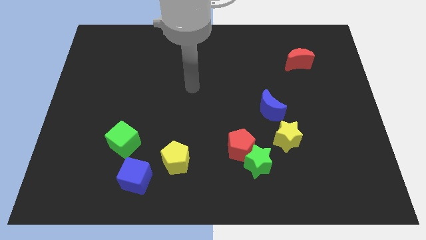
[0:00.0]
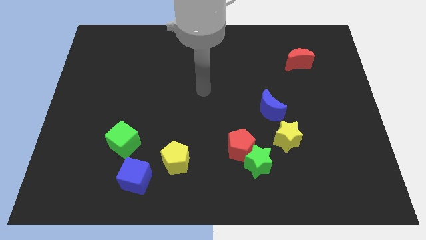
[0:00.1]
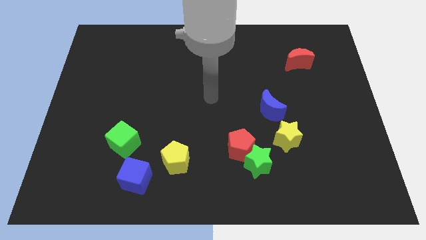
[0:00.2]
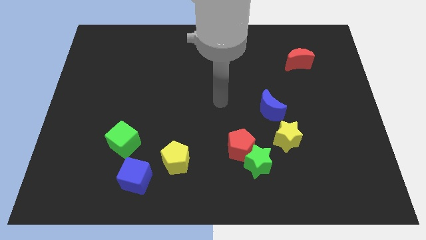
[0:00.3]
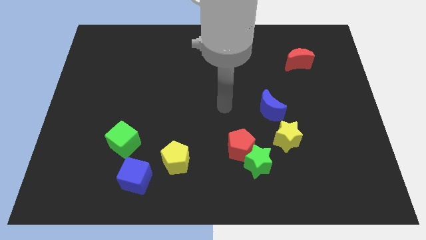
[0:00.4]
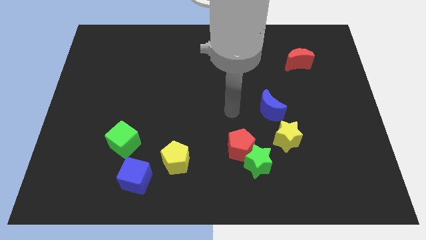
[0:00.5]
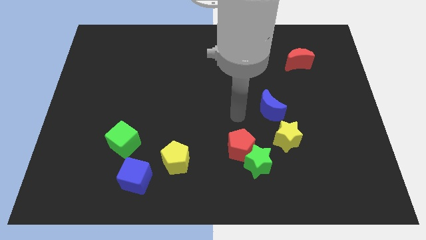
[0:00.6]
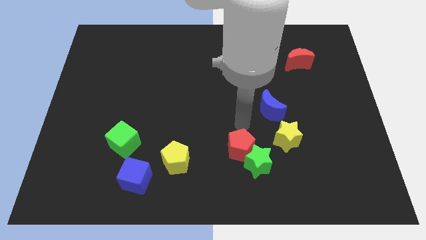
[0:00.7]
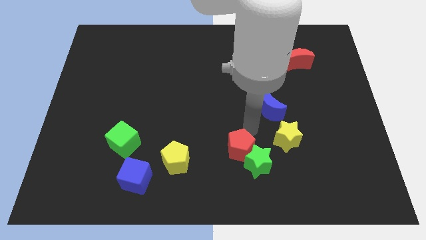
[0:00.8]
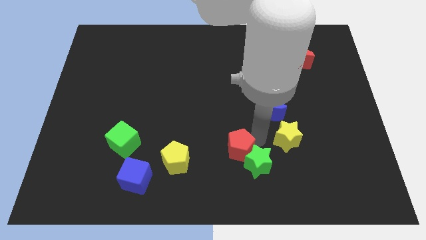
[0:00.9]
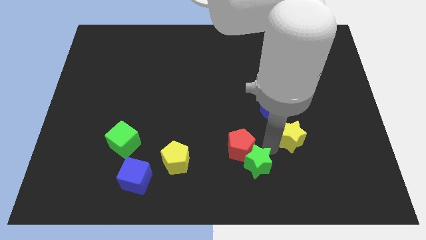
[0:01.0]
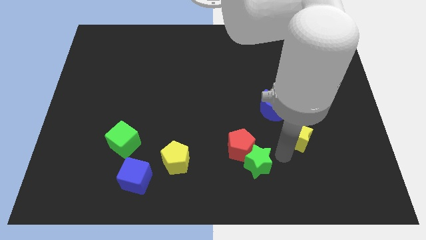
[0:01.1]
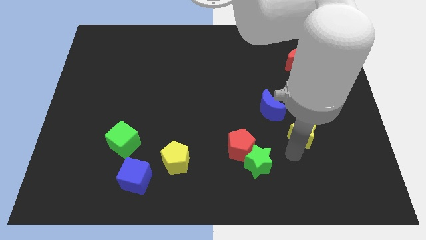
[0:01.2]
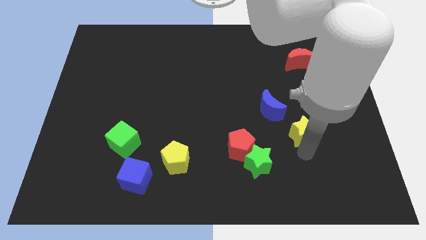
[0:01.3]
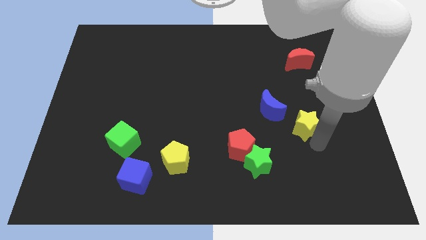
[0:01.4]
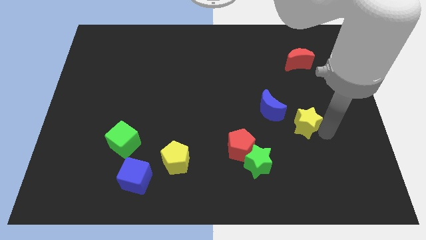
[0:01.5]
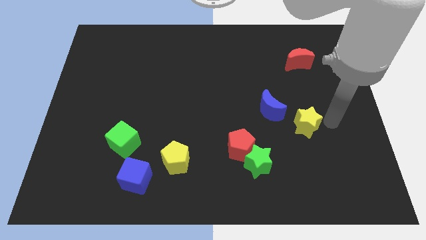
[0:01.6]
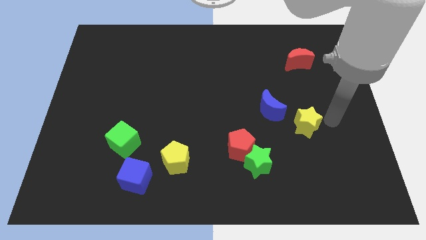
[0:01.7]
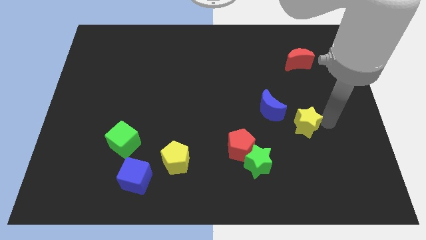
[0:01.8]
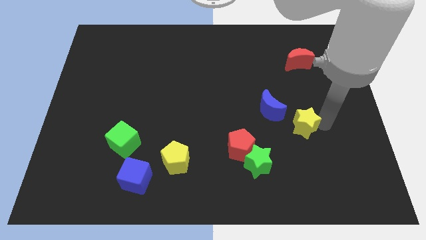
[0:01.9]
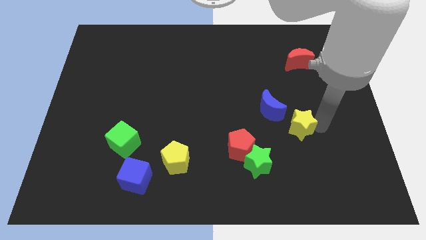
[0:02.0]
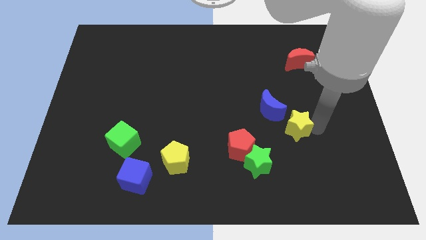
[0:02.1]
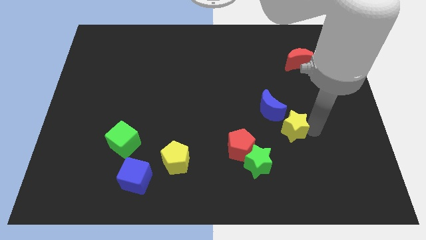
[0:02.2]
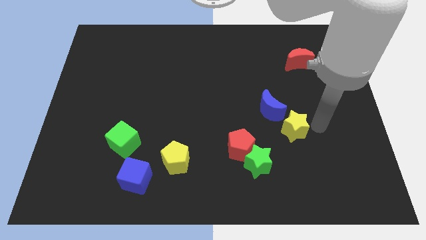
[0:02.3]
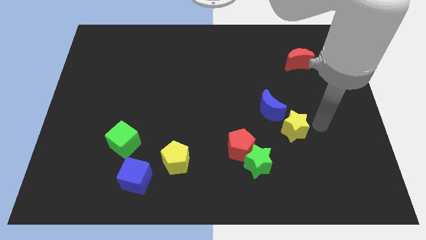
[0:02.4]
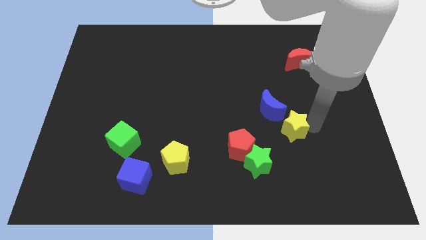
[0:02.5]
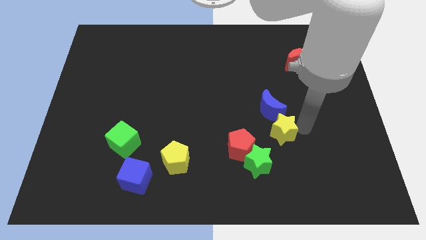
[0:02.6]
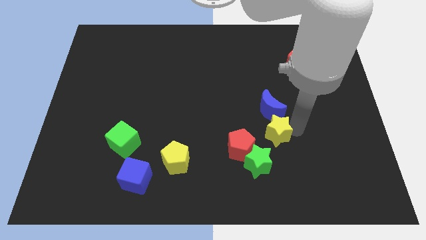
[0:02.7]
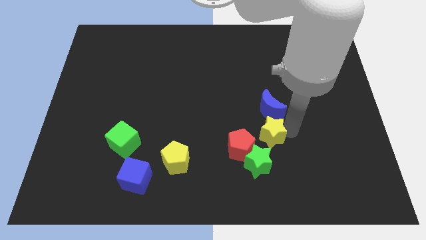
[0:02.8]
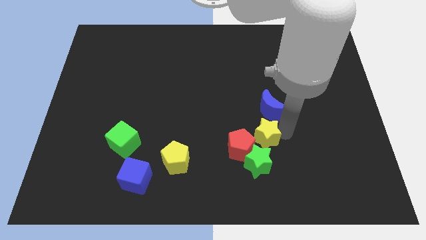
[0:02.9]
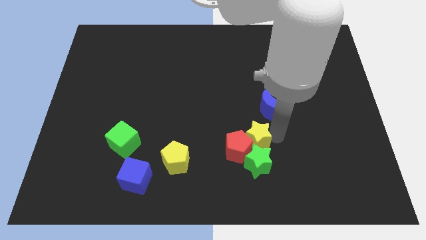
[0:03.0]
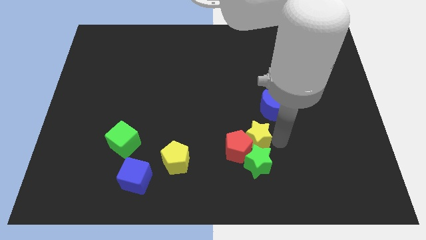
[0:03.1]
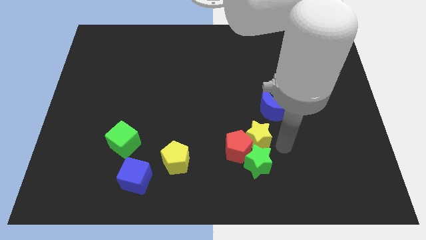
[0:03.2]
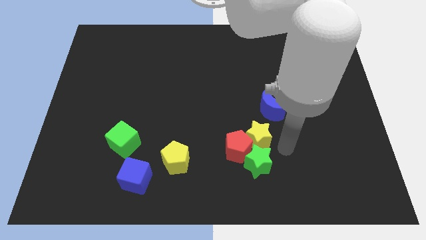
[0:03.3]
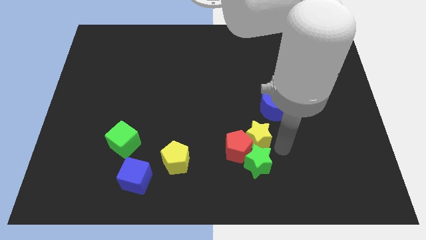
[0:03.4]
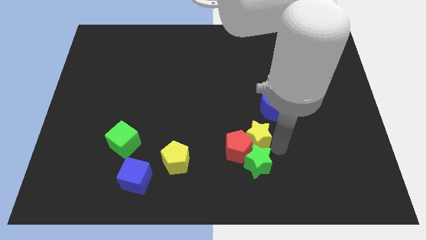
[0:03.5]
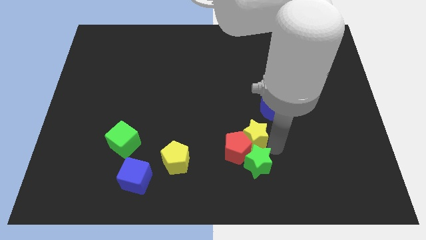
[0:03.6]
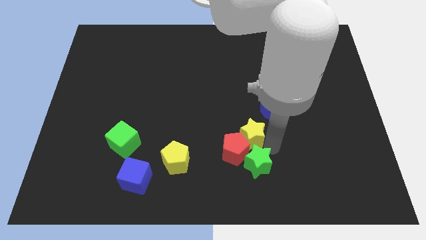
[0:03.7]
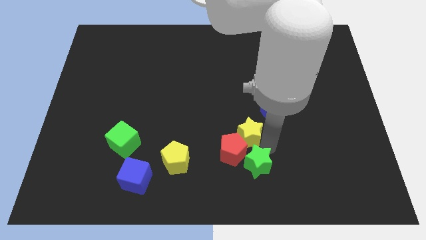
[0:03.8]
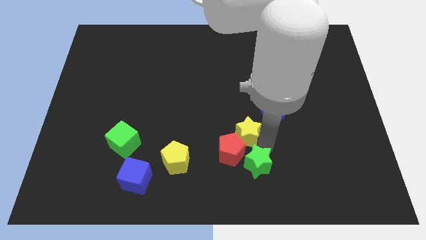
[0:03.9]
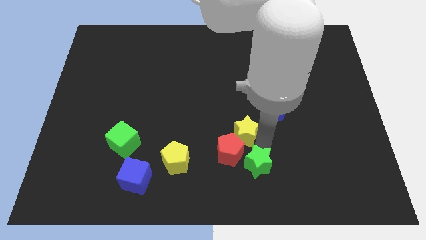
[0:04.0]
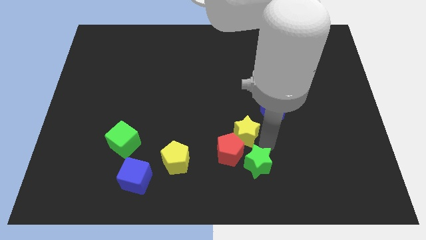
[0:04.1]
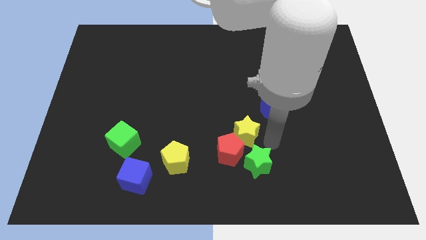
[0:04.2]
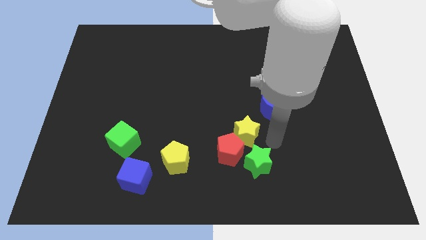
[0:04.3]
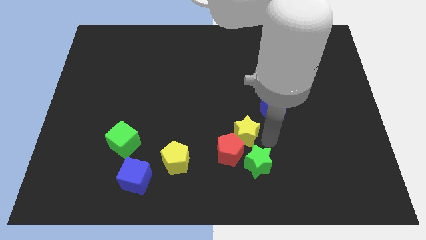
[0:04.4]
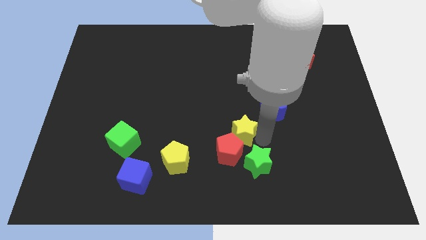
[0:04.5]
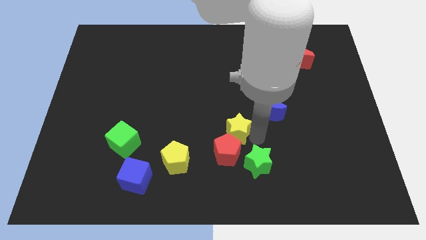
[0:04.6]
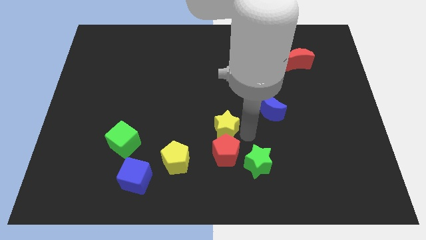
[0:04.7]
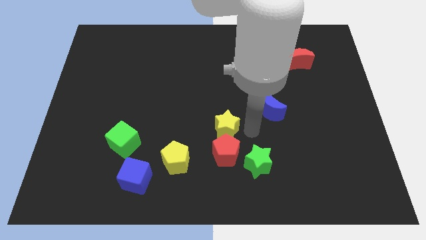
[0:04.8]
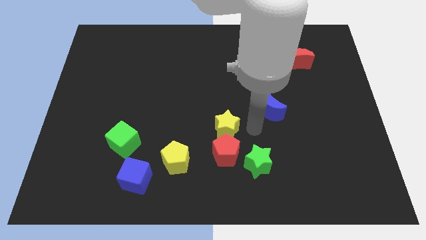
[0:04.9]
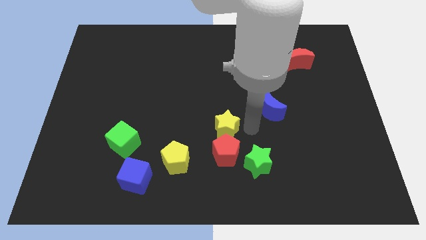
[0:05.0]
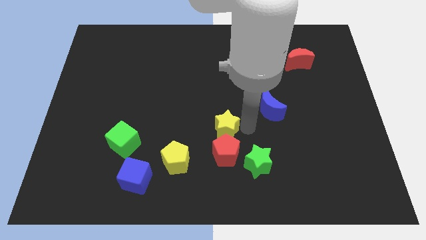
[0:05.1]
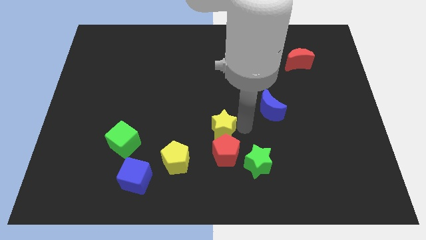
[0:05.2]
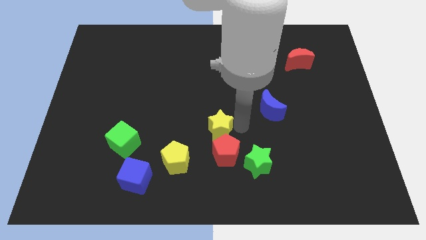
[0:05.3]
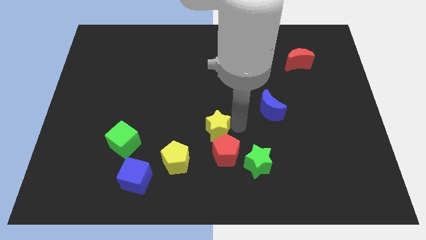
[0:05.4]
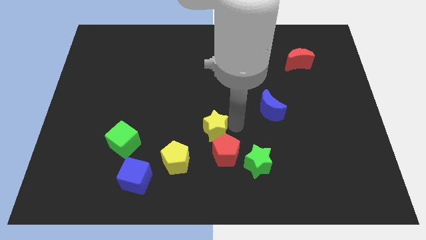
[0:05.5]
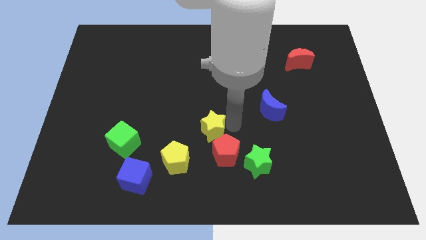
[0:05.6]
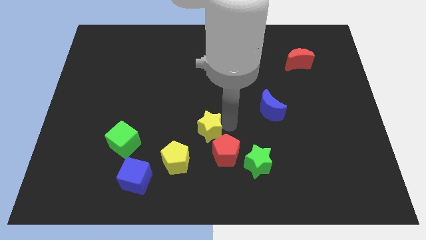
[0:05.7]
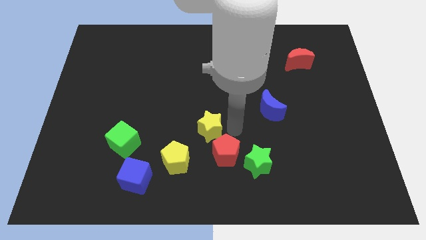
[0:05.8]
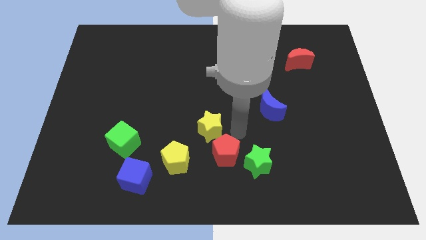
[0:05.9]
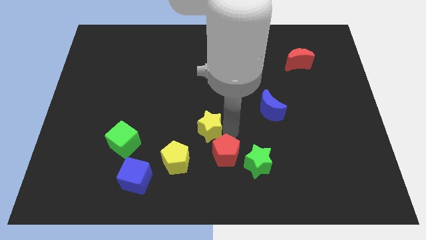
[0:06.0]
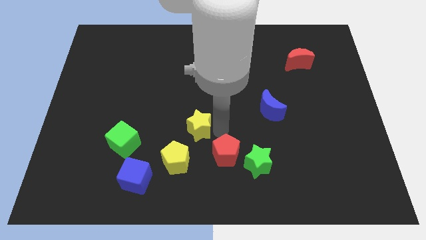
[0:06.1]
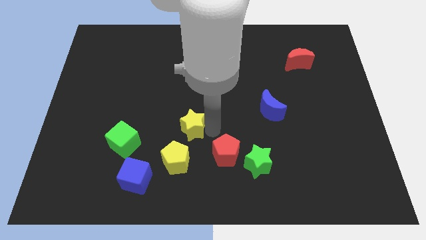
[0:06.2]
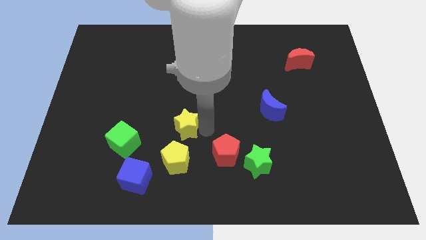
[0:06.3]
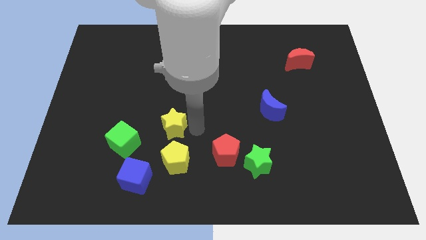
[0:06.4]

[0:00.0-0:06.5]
slide the yellow star diagonally up and to the right of the green cube

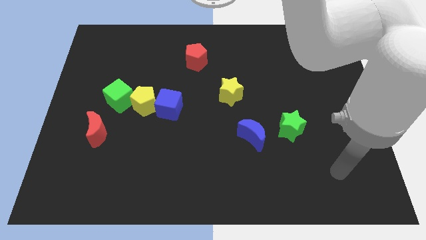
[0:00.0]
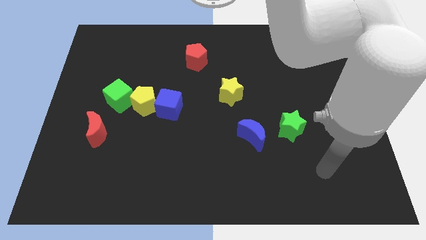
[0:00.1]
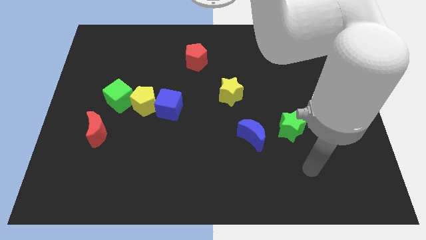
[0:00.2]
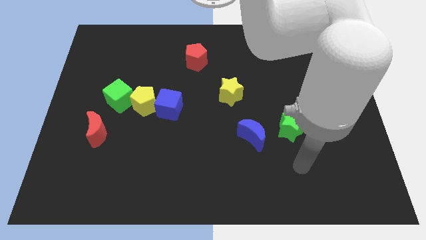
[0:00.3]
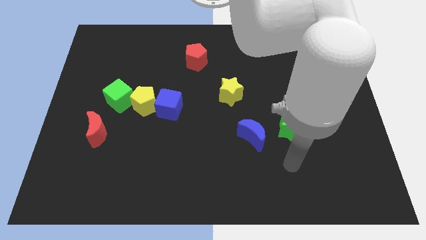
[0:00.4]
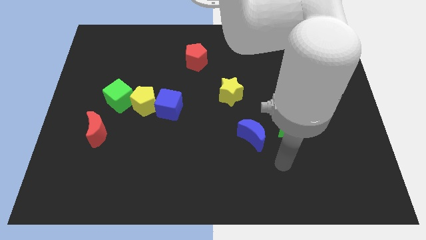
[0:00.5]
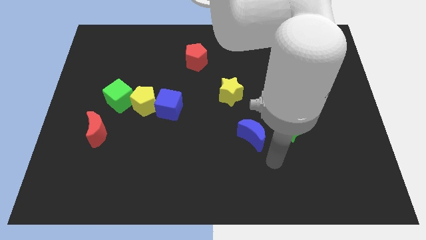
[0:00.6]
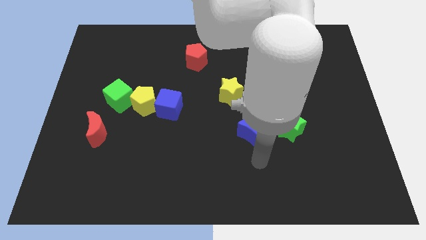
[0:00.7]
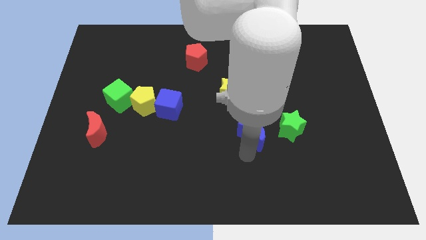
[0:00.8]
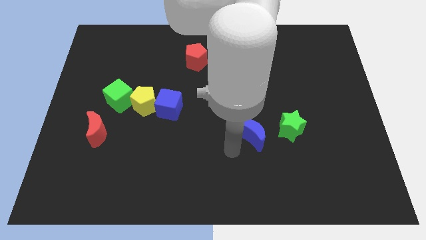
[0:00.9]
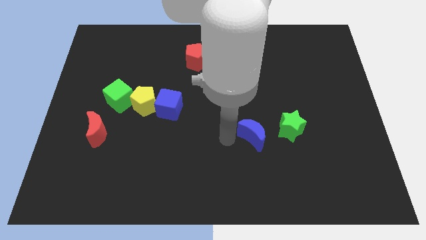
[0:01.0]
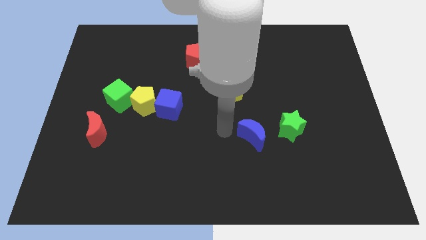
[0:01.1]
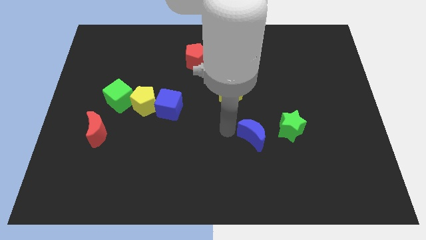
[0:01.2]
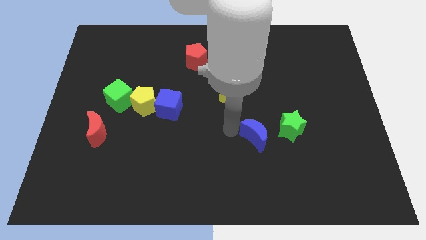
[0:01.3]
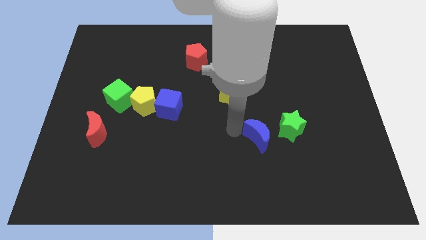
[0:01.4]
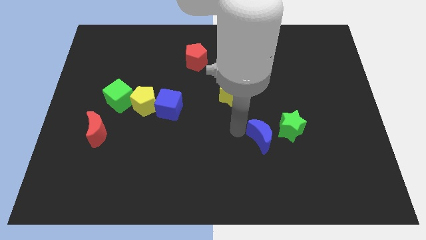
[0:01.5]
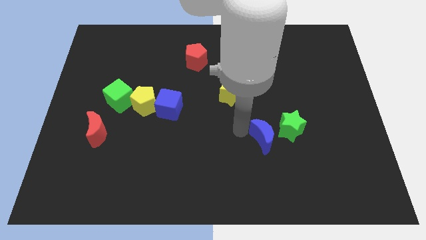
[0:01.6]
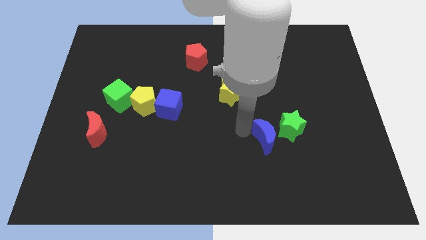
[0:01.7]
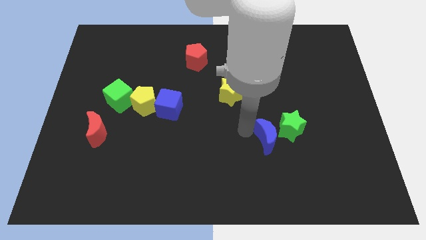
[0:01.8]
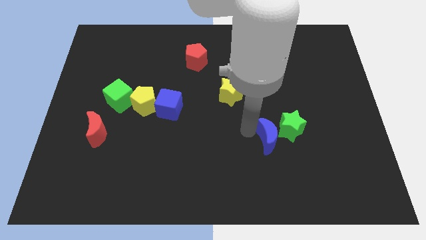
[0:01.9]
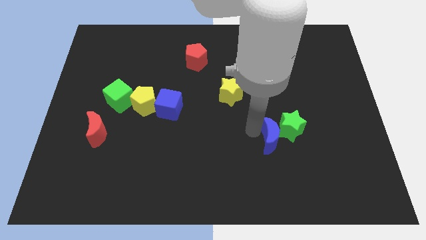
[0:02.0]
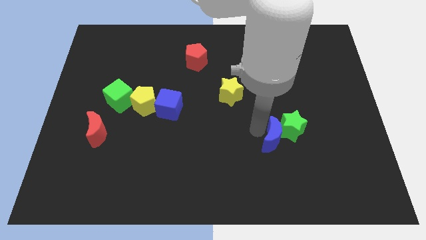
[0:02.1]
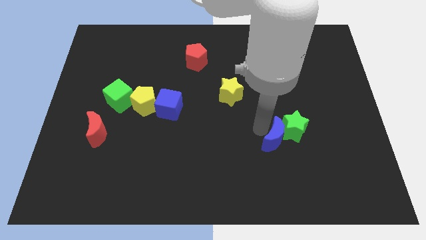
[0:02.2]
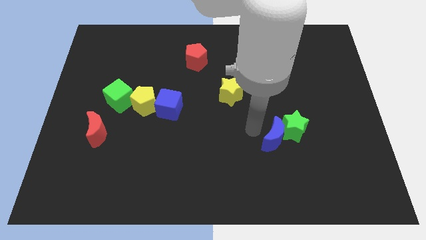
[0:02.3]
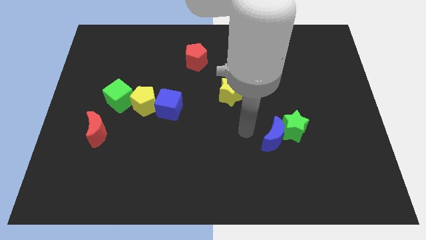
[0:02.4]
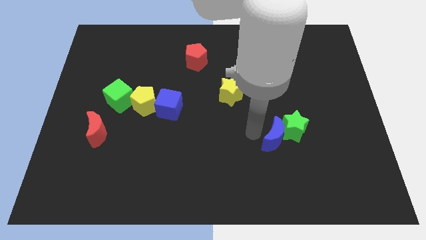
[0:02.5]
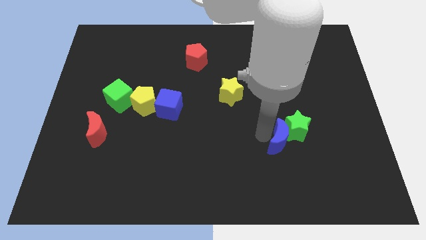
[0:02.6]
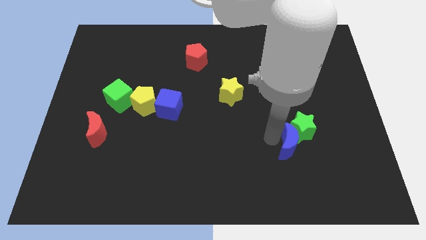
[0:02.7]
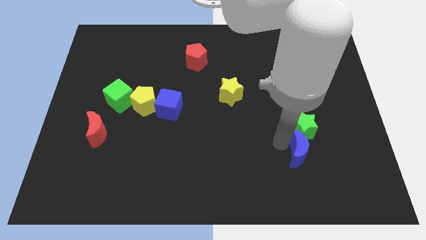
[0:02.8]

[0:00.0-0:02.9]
slide the blue moon to the bottom right of the green star
